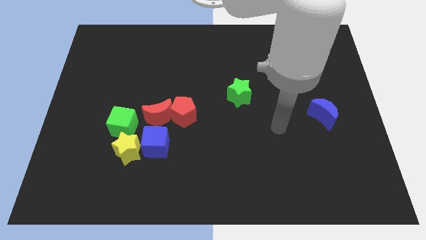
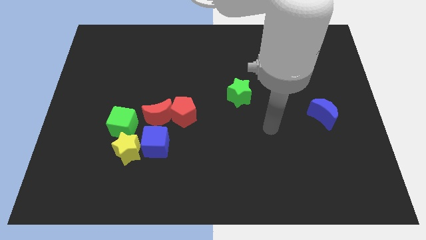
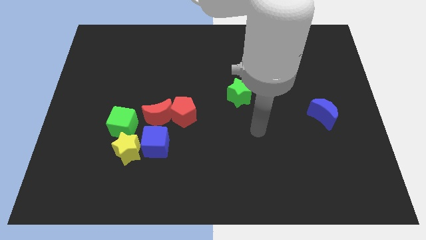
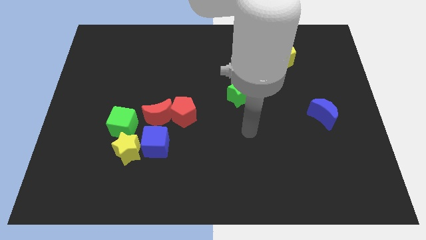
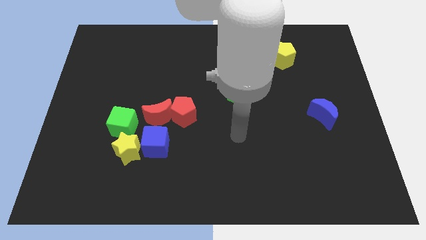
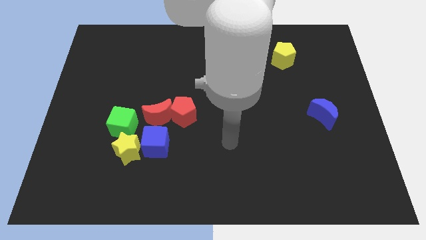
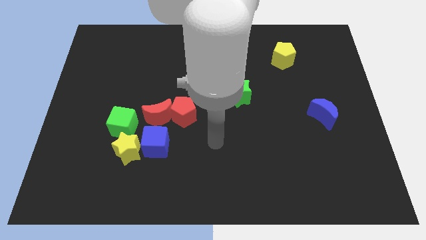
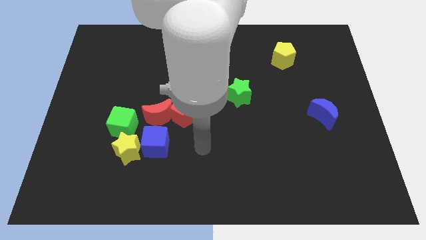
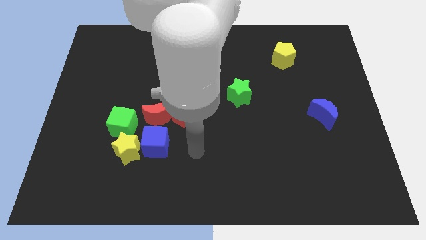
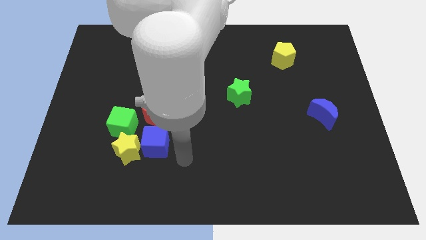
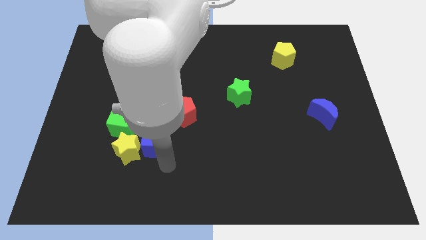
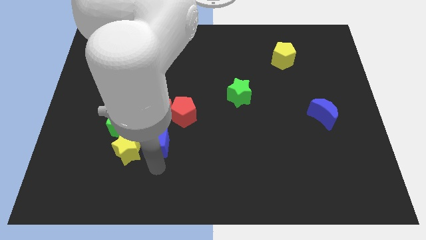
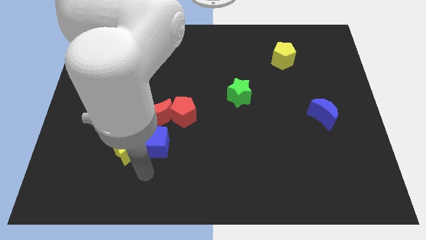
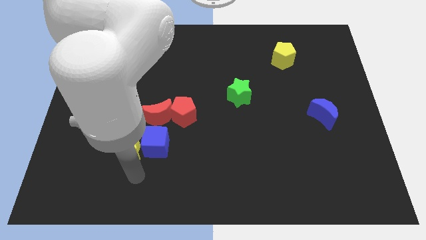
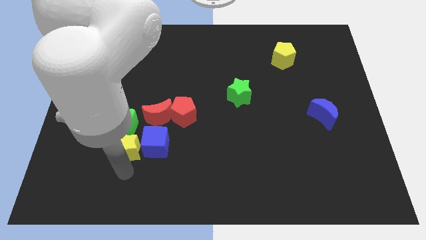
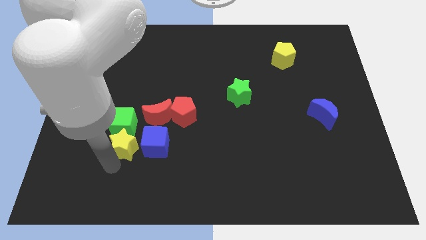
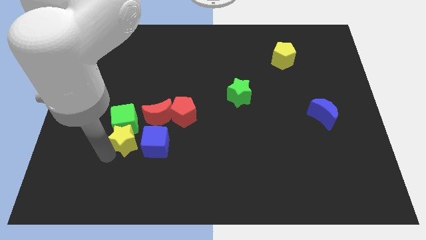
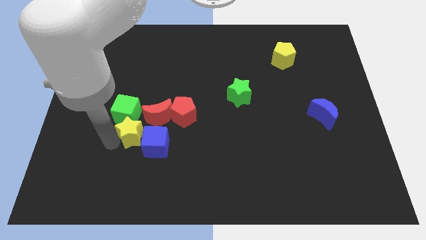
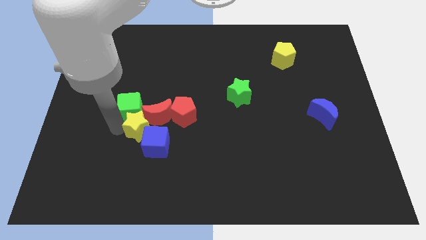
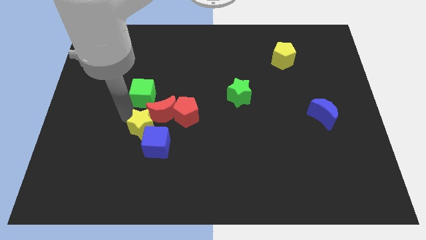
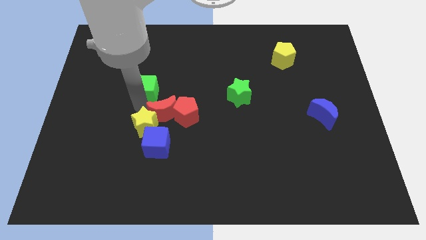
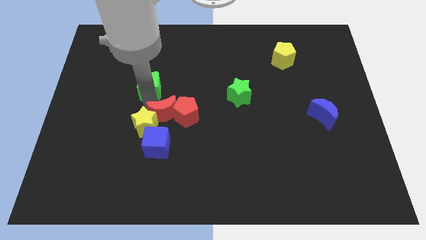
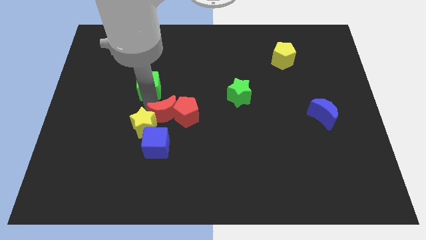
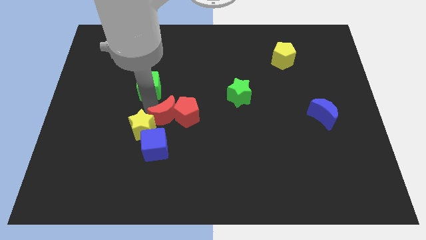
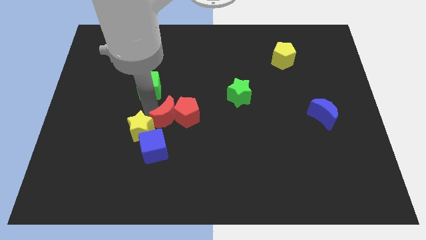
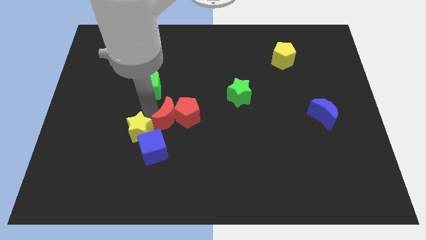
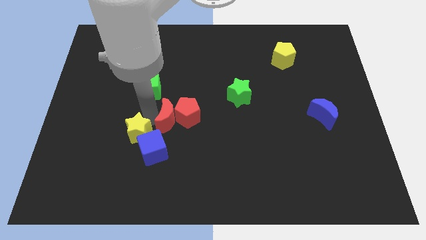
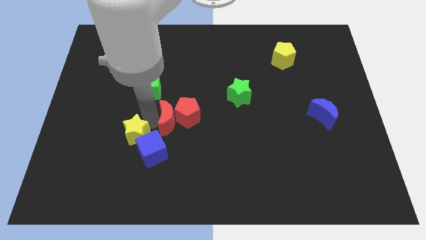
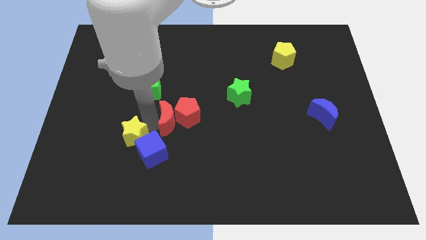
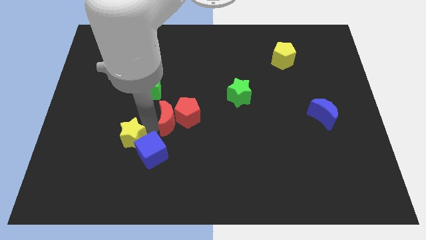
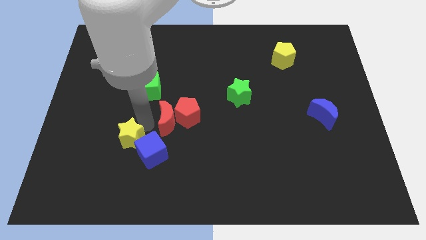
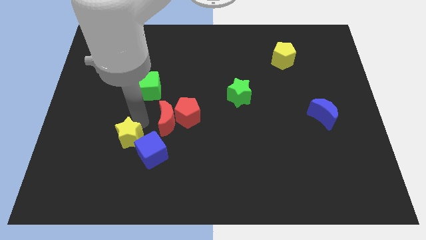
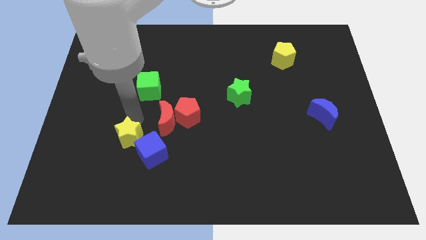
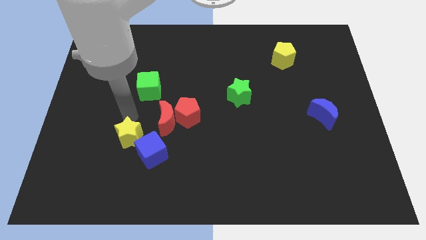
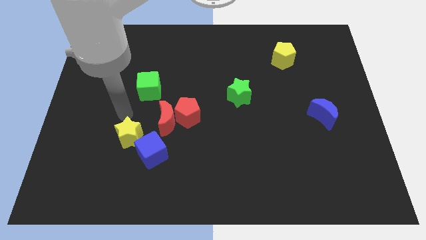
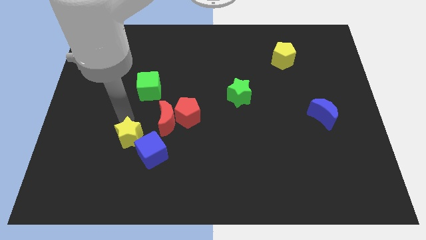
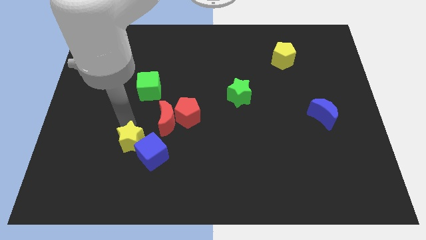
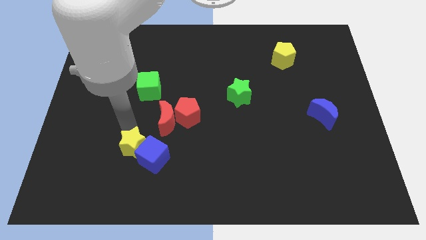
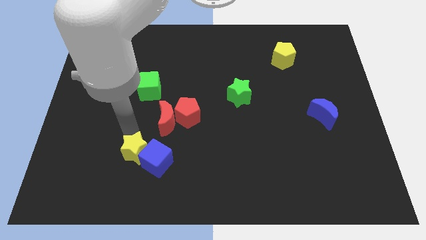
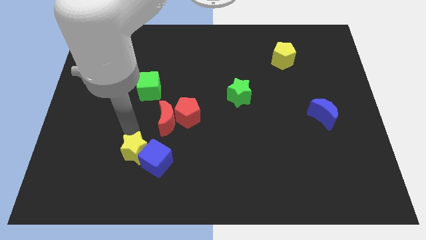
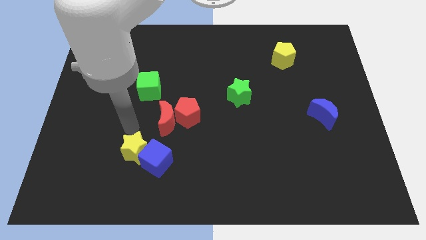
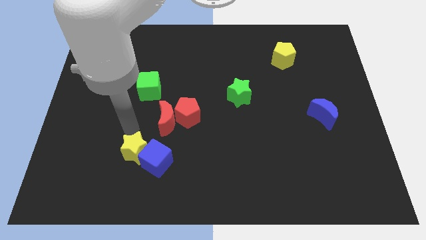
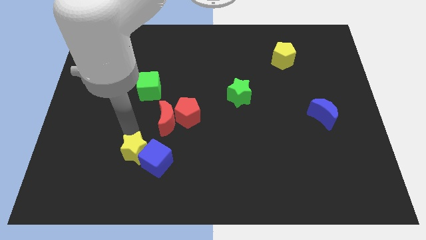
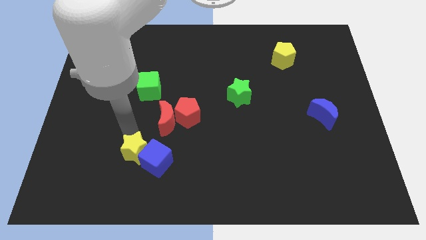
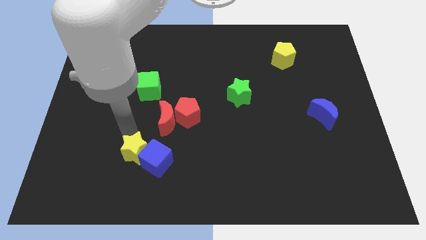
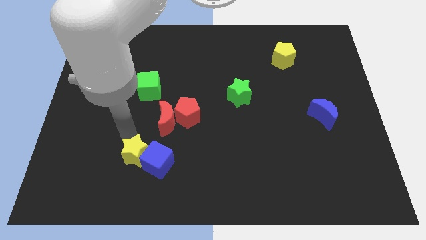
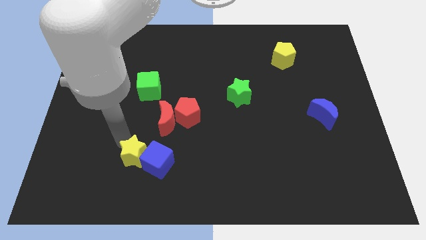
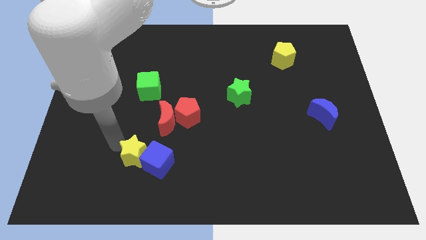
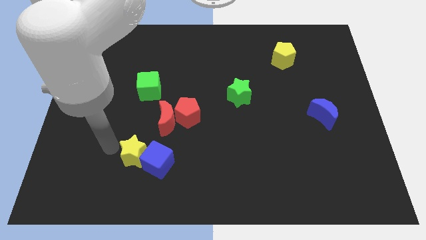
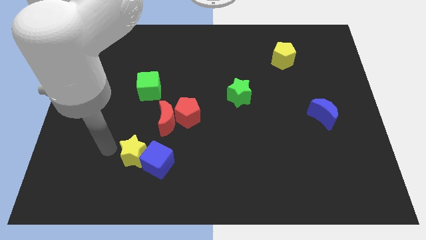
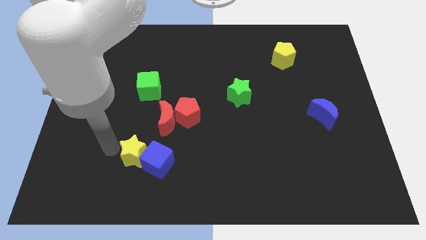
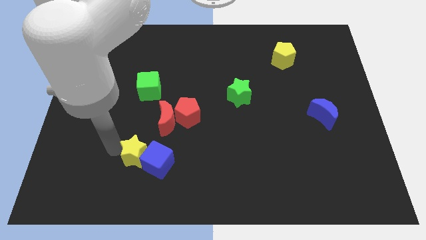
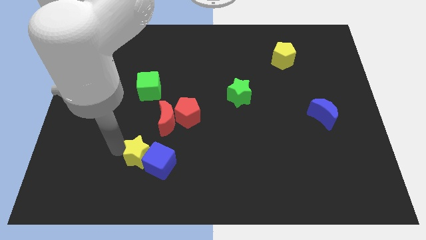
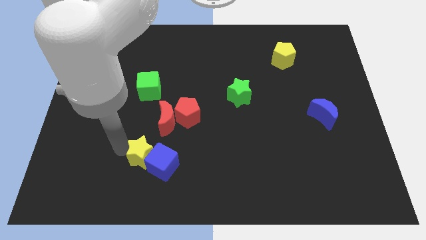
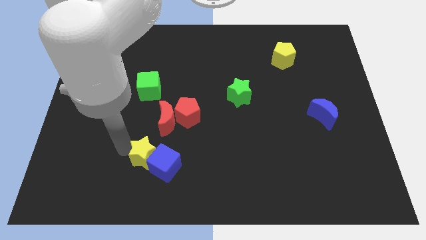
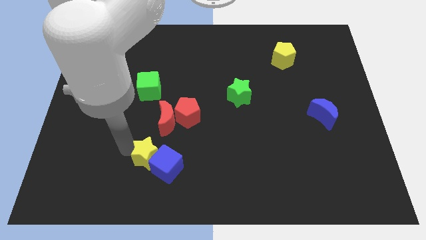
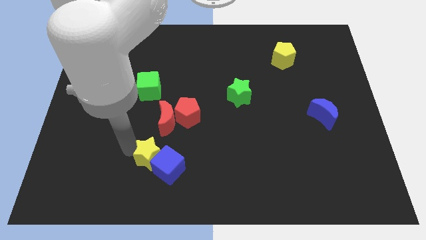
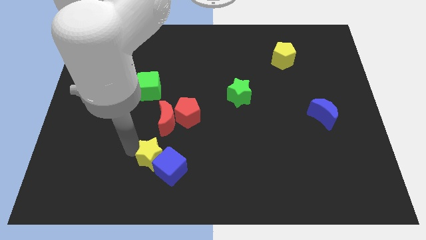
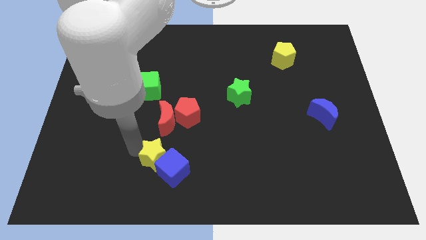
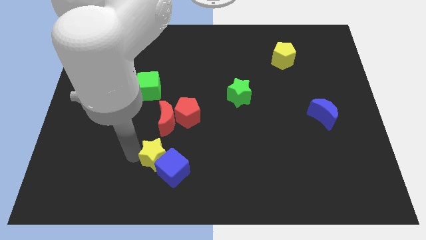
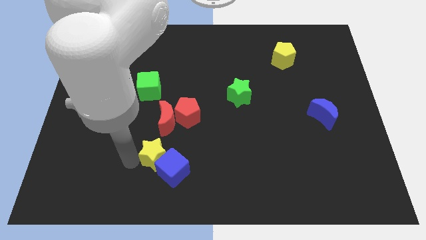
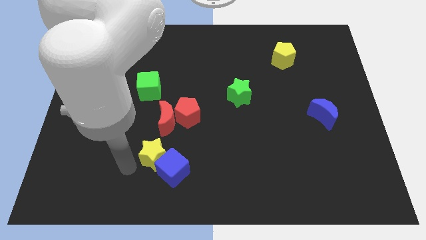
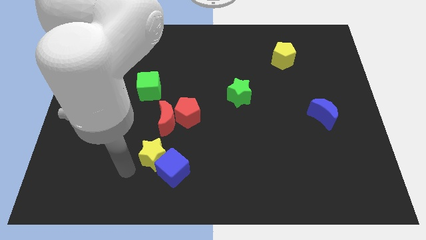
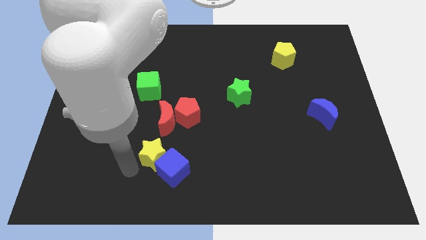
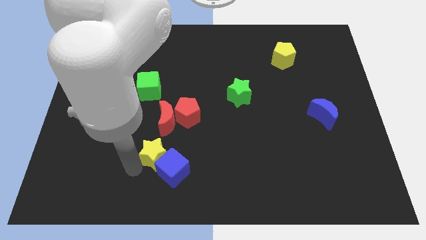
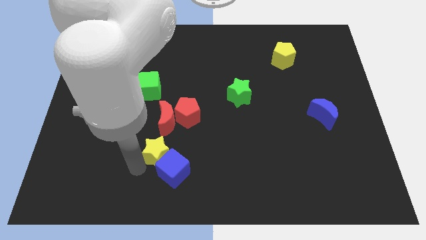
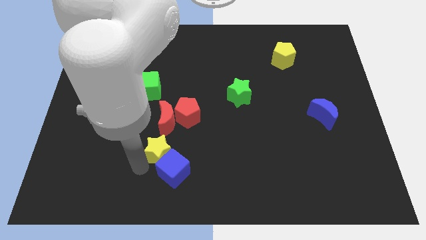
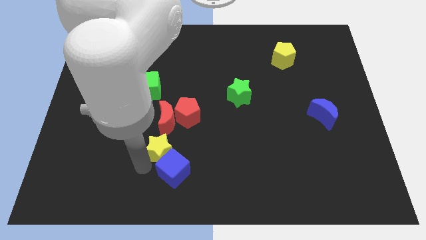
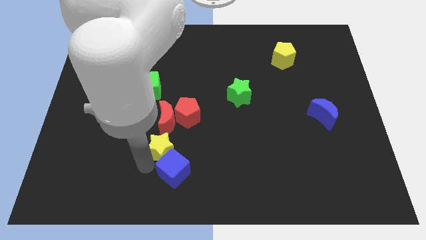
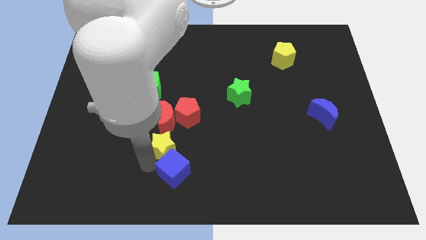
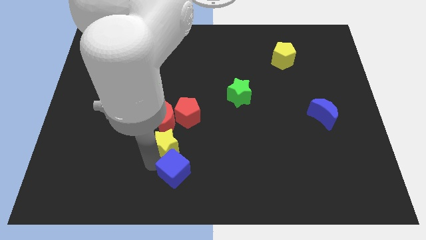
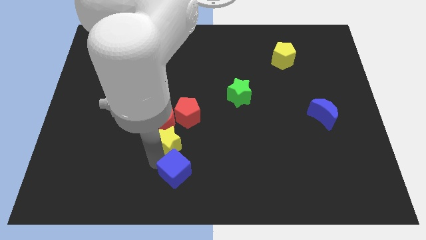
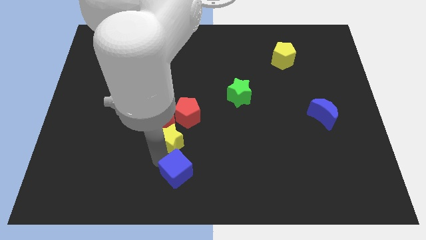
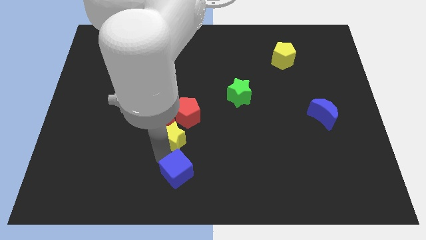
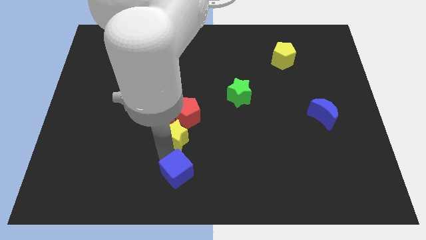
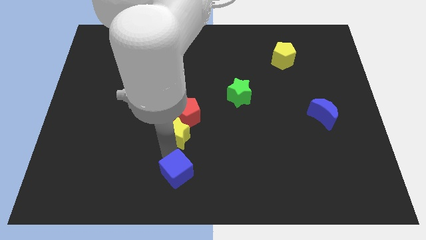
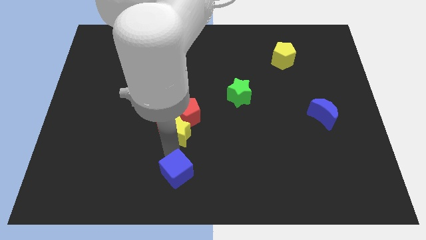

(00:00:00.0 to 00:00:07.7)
put the yellow star to the right of the red moon

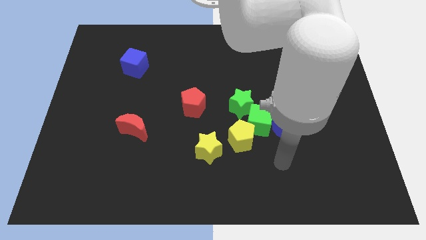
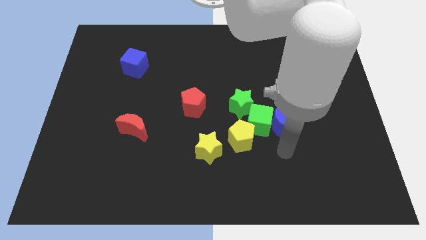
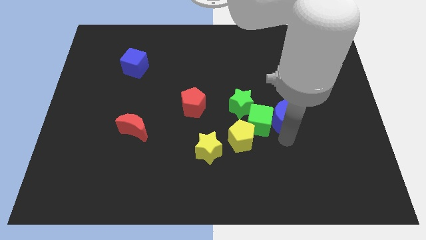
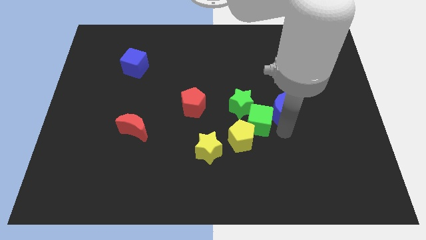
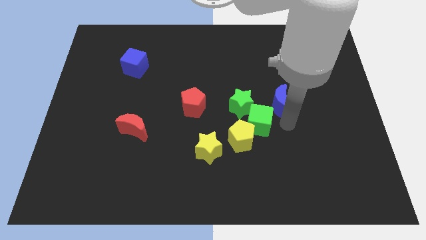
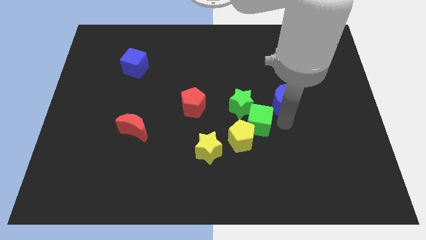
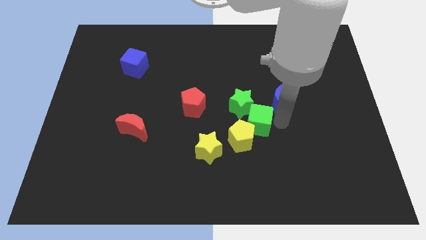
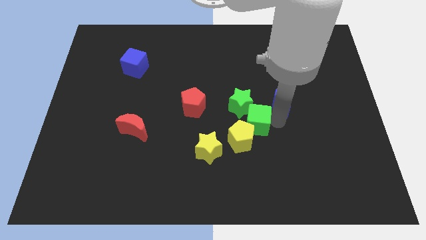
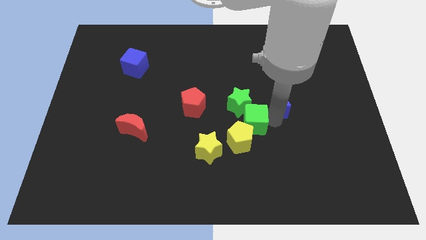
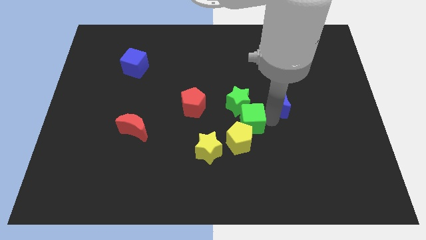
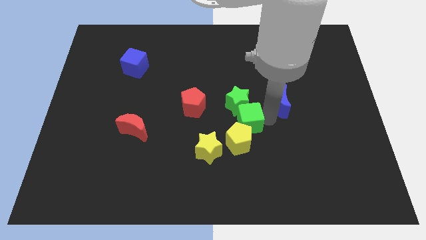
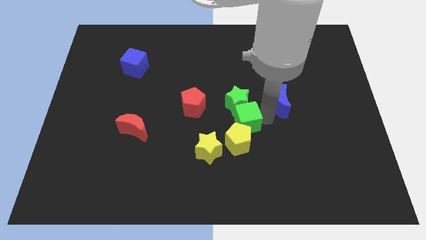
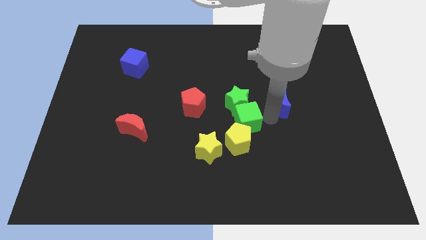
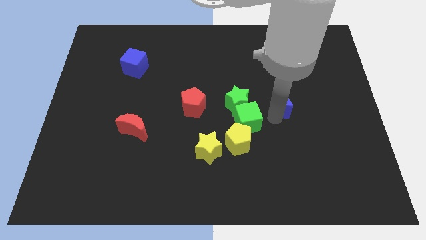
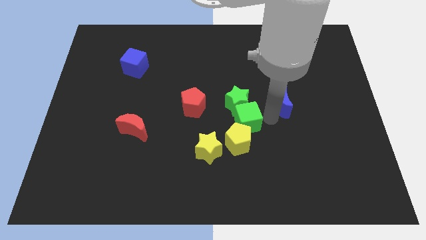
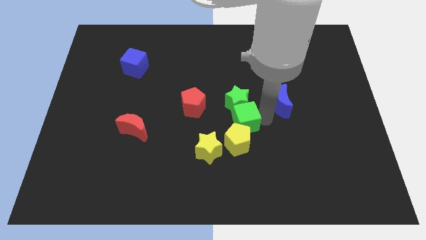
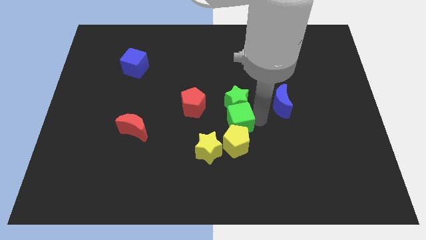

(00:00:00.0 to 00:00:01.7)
push the green cube to the bottom right of the red pentagon
